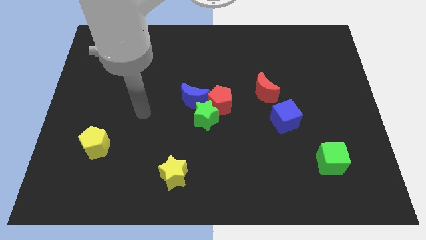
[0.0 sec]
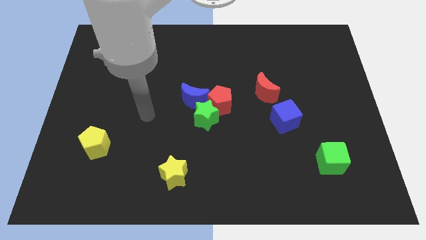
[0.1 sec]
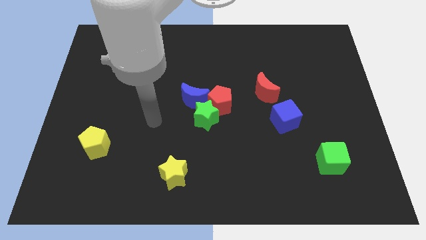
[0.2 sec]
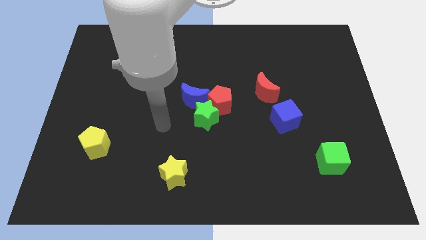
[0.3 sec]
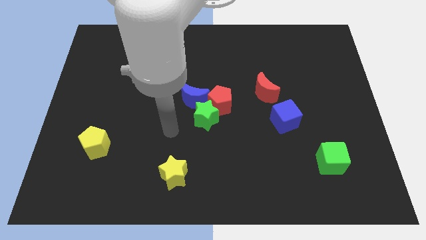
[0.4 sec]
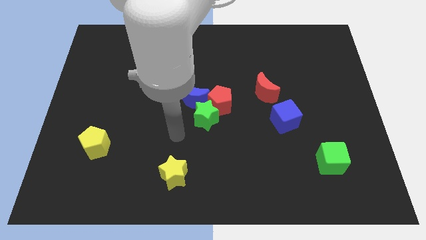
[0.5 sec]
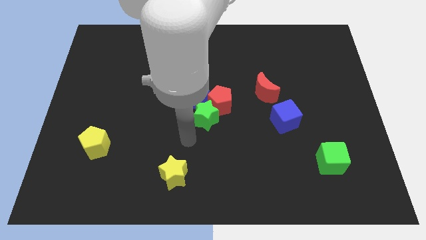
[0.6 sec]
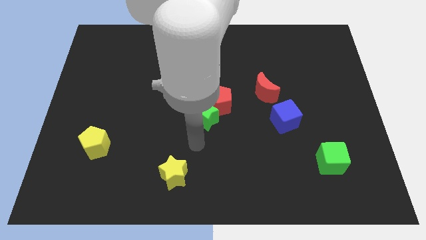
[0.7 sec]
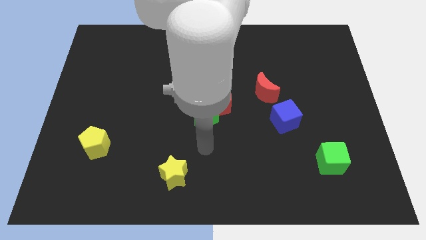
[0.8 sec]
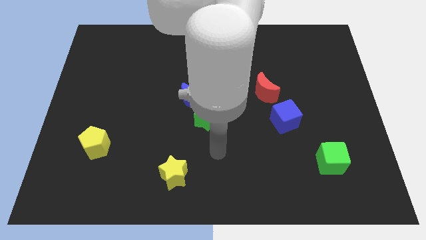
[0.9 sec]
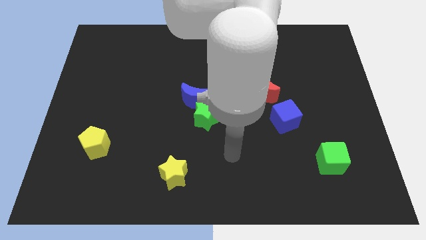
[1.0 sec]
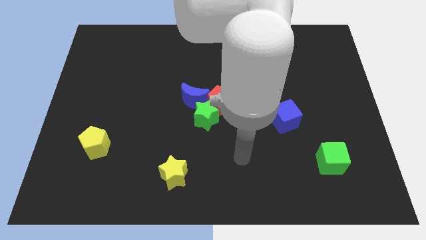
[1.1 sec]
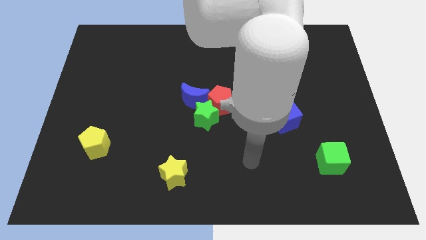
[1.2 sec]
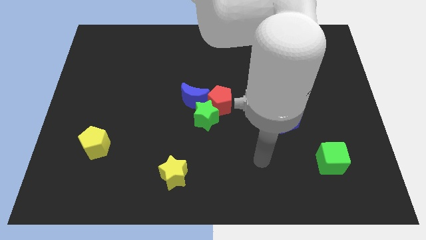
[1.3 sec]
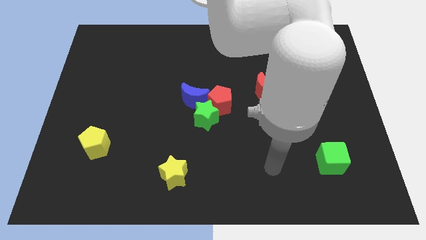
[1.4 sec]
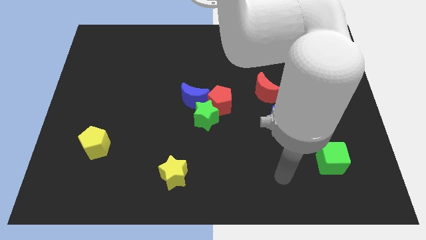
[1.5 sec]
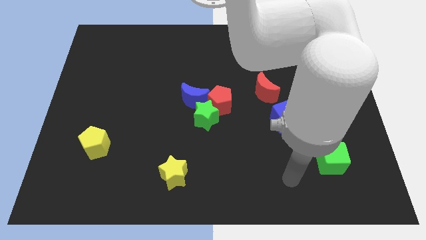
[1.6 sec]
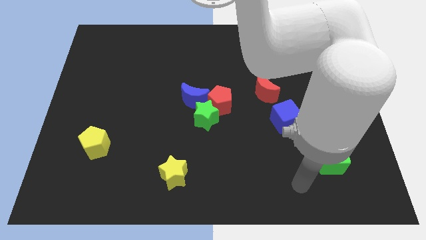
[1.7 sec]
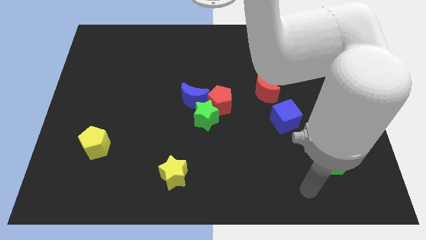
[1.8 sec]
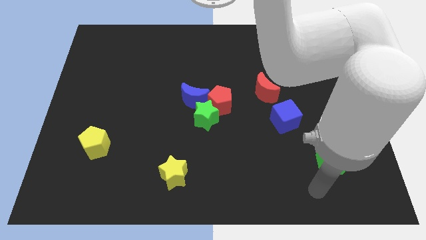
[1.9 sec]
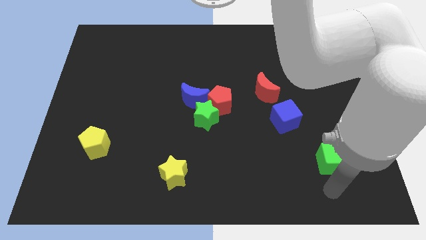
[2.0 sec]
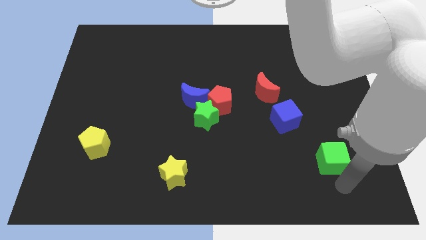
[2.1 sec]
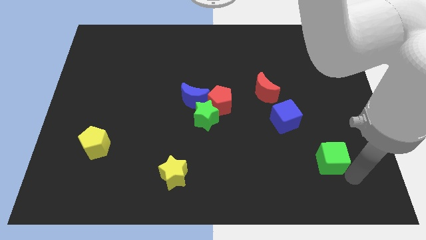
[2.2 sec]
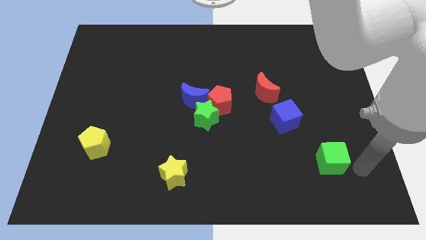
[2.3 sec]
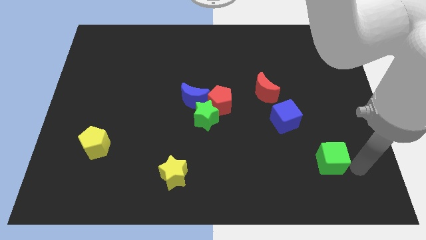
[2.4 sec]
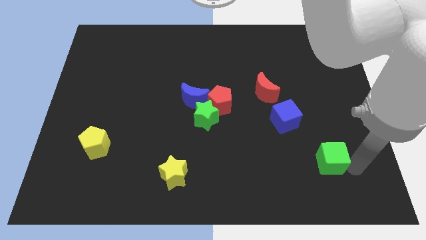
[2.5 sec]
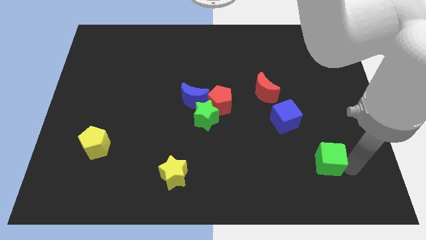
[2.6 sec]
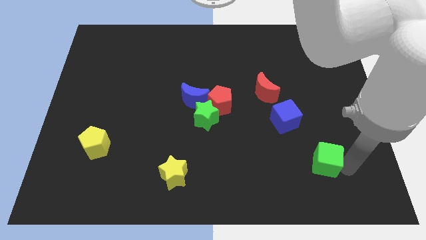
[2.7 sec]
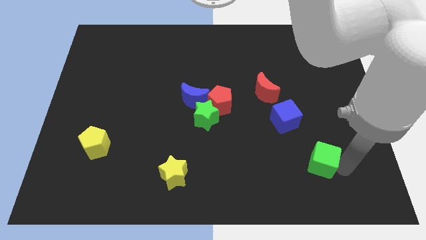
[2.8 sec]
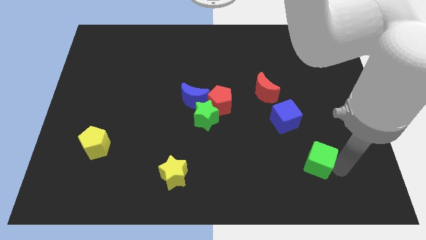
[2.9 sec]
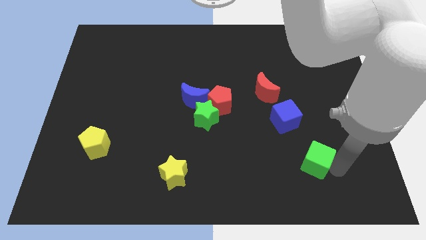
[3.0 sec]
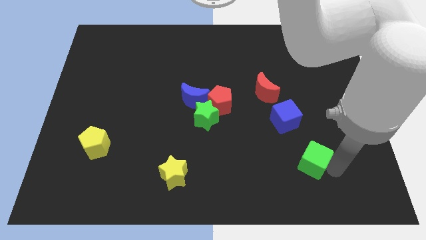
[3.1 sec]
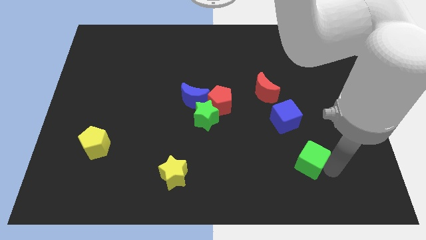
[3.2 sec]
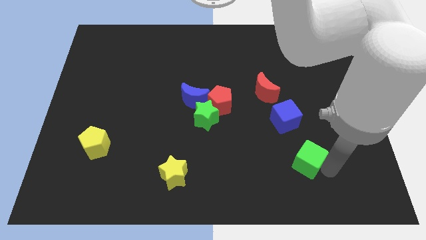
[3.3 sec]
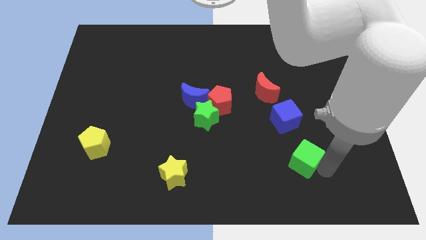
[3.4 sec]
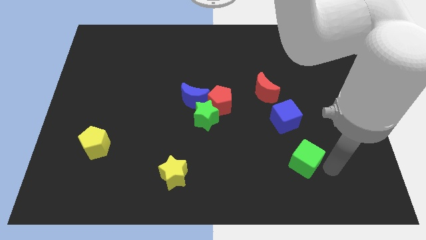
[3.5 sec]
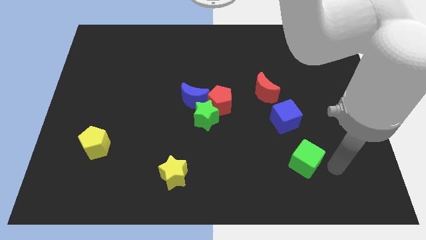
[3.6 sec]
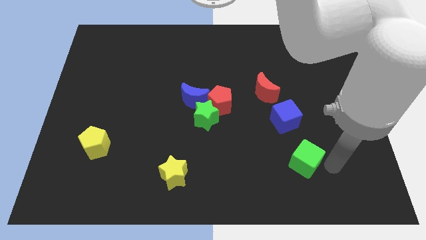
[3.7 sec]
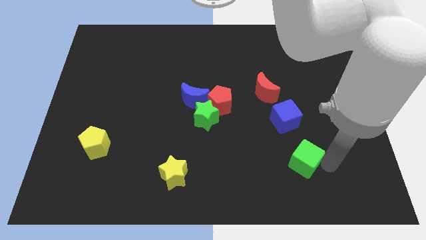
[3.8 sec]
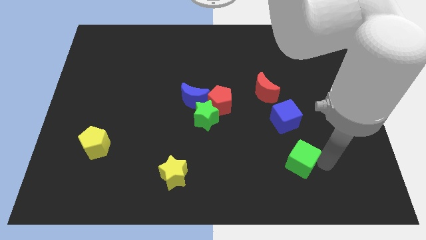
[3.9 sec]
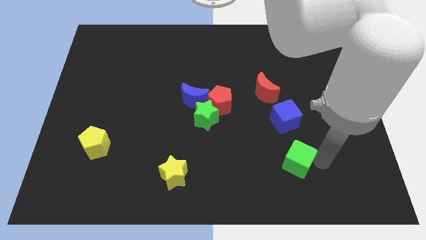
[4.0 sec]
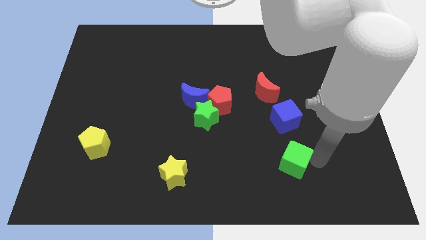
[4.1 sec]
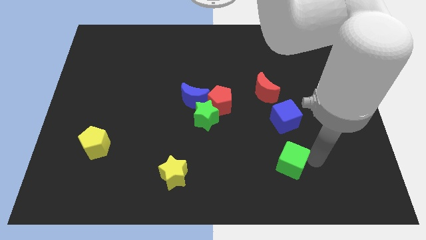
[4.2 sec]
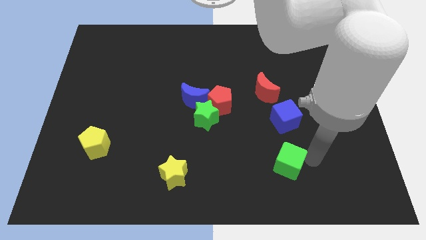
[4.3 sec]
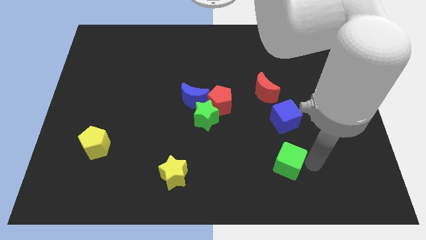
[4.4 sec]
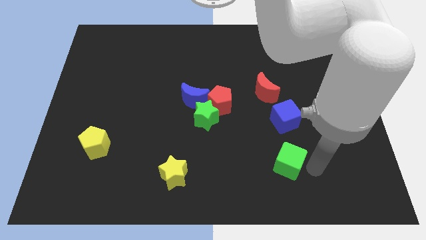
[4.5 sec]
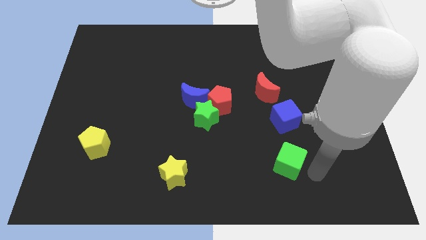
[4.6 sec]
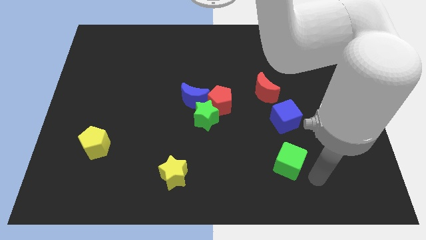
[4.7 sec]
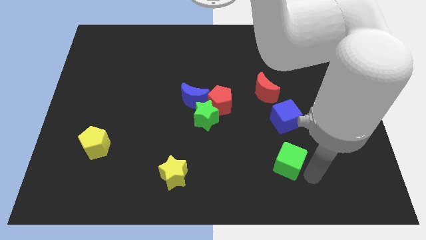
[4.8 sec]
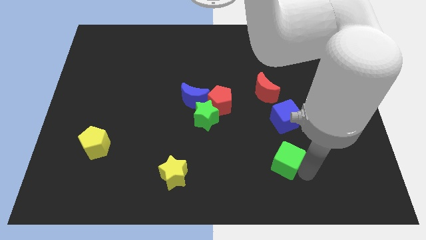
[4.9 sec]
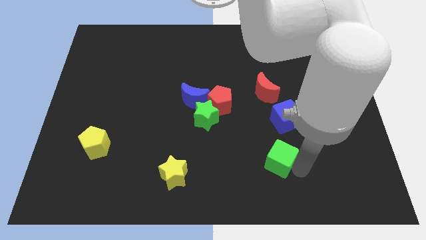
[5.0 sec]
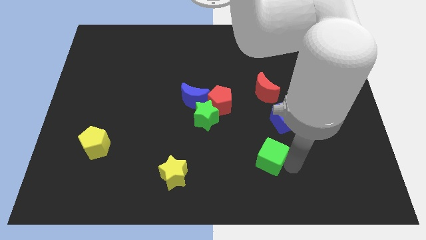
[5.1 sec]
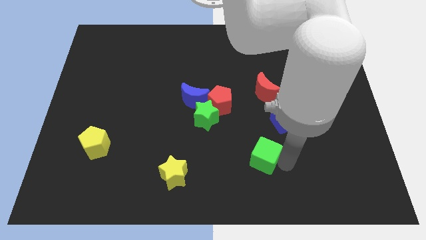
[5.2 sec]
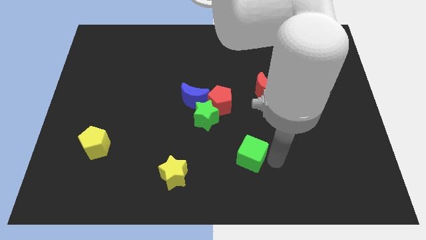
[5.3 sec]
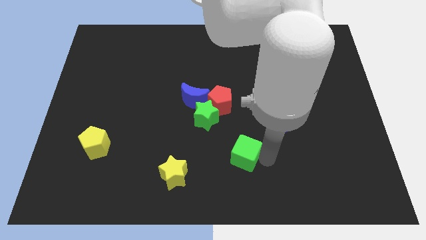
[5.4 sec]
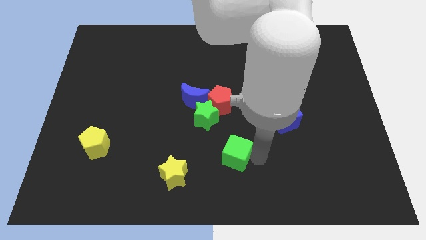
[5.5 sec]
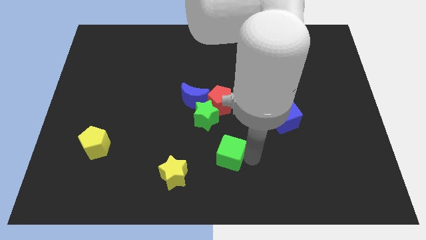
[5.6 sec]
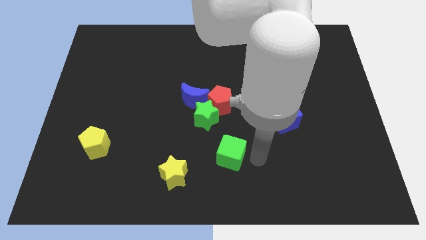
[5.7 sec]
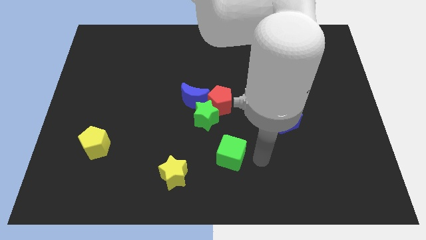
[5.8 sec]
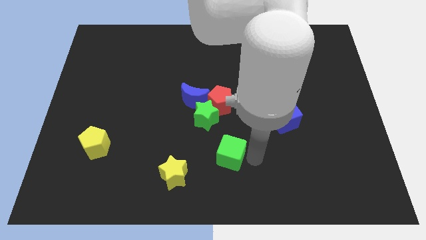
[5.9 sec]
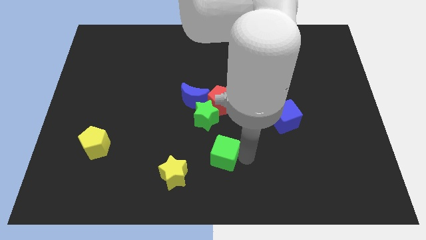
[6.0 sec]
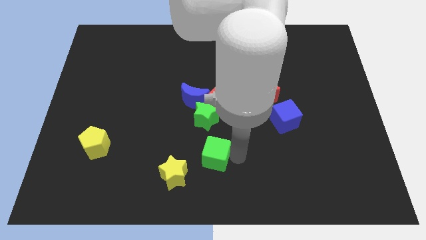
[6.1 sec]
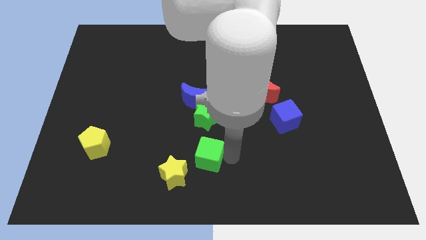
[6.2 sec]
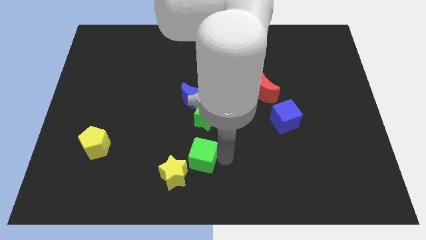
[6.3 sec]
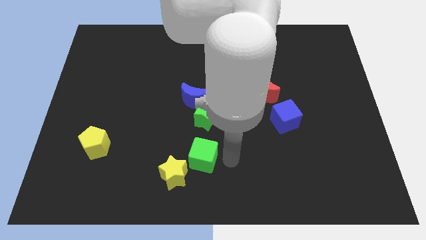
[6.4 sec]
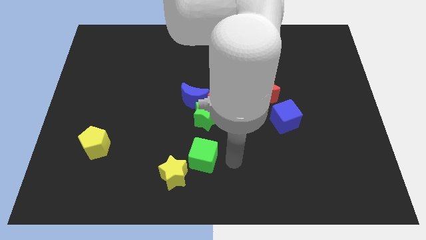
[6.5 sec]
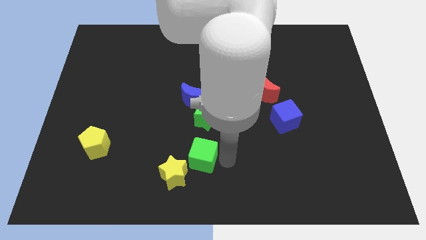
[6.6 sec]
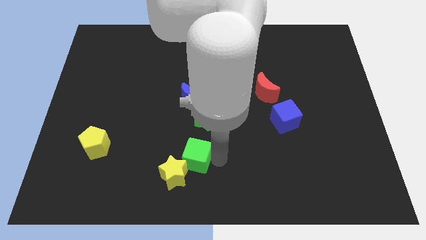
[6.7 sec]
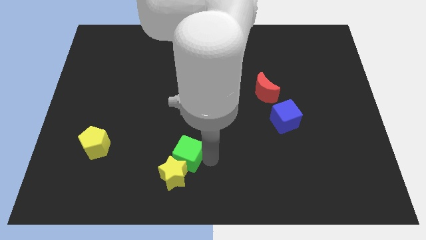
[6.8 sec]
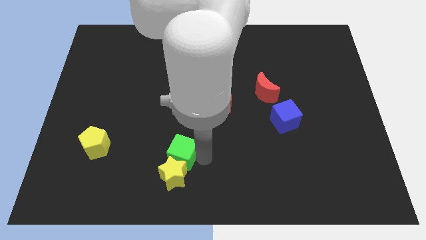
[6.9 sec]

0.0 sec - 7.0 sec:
put the green cube to the top left of the yellow star

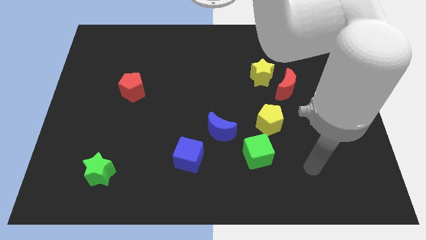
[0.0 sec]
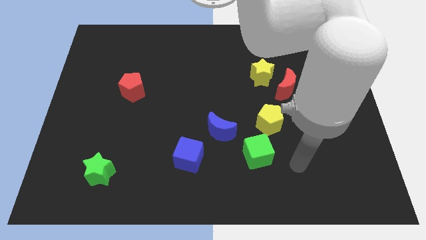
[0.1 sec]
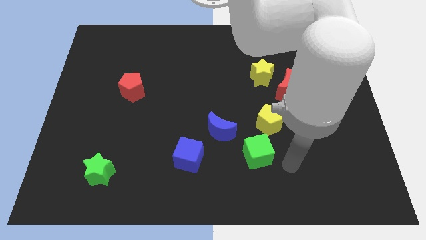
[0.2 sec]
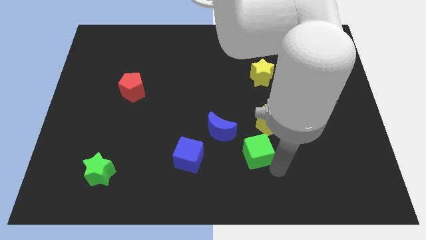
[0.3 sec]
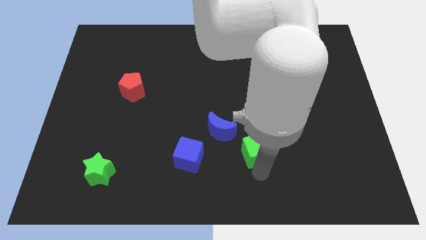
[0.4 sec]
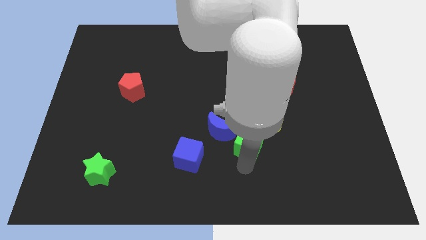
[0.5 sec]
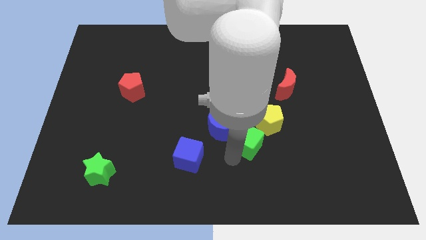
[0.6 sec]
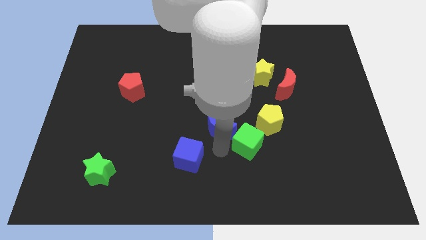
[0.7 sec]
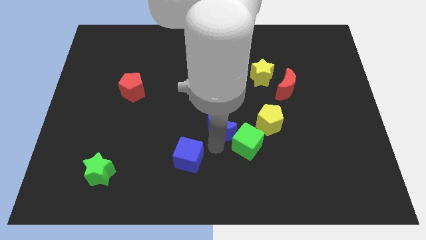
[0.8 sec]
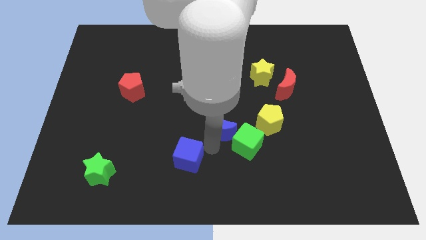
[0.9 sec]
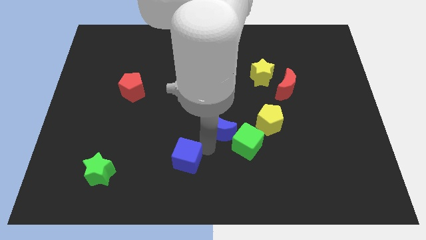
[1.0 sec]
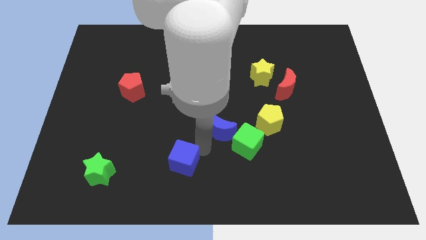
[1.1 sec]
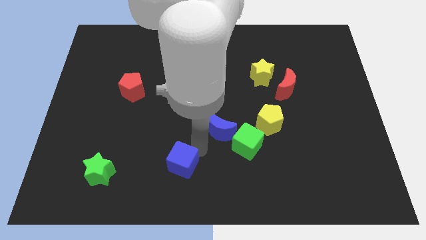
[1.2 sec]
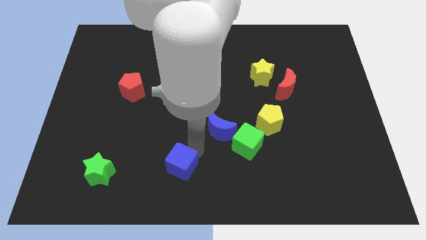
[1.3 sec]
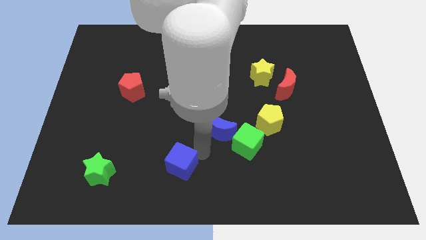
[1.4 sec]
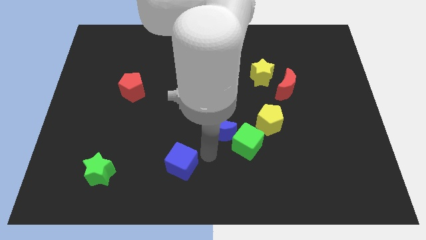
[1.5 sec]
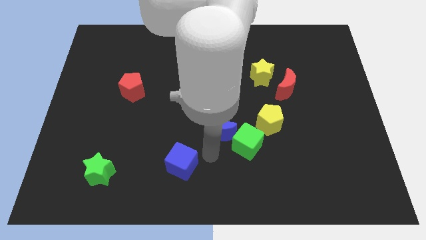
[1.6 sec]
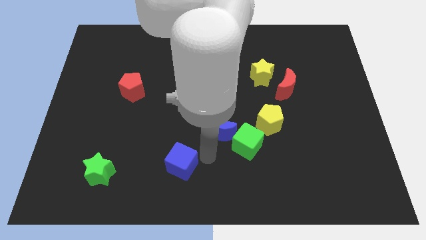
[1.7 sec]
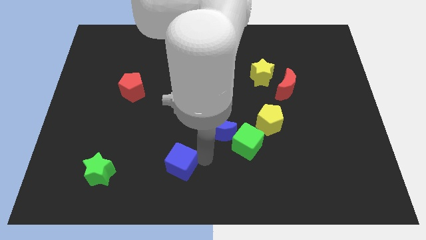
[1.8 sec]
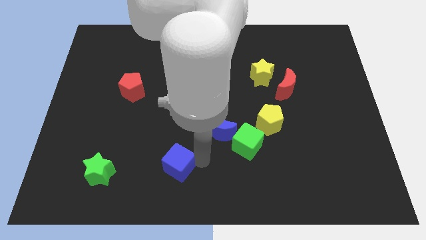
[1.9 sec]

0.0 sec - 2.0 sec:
push the blue cube just right of the green star
